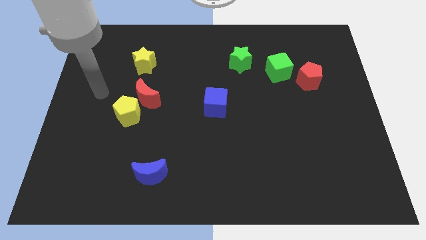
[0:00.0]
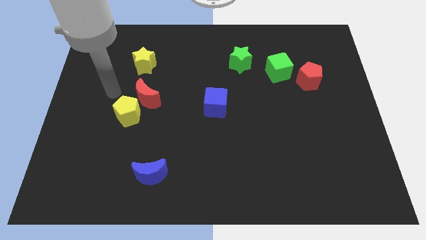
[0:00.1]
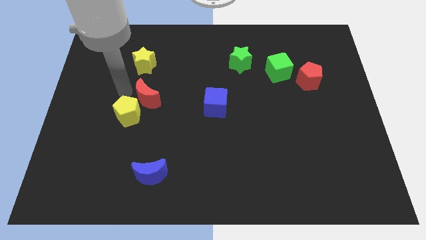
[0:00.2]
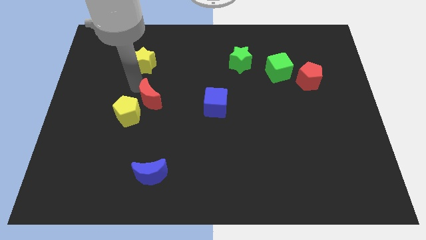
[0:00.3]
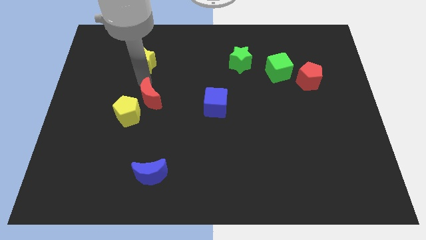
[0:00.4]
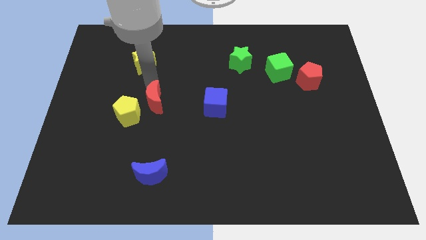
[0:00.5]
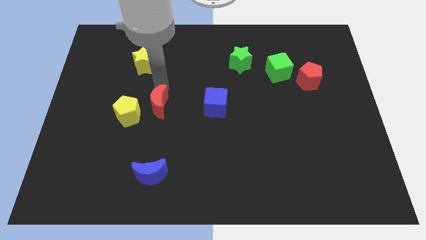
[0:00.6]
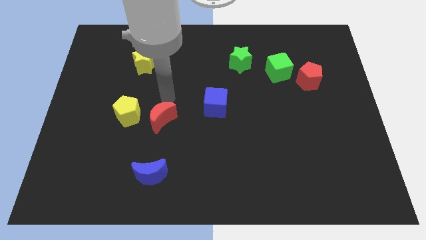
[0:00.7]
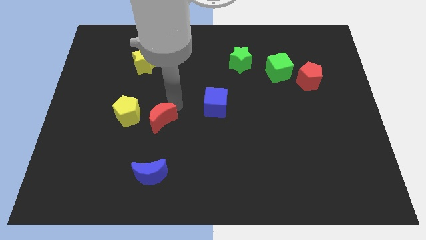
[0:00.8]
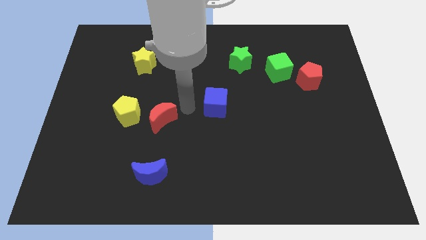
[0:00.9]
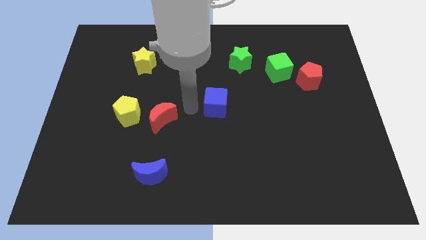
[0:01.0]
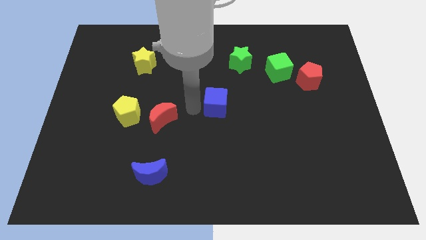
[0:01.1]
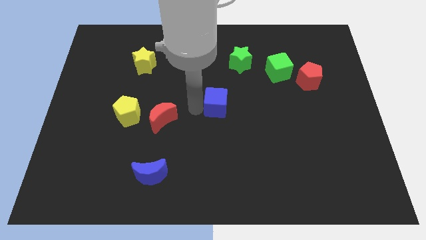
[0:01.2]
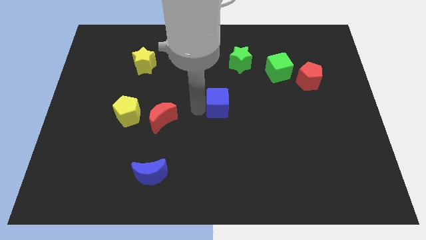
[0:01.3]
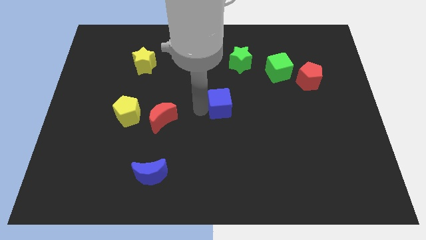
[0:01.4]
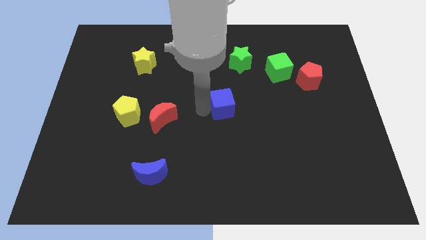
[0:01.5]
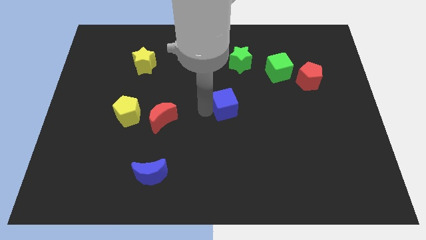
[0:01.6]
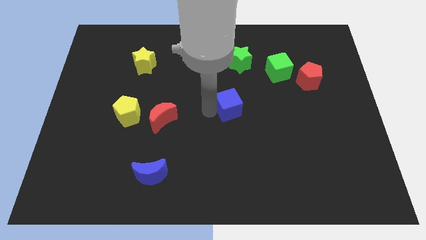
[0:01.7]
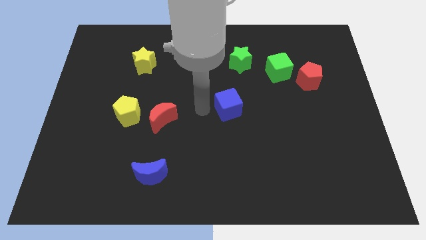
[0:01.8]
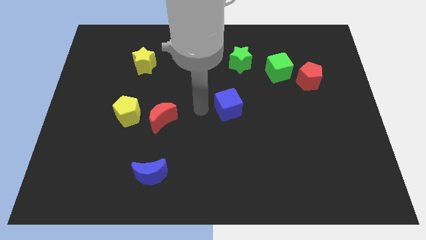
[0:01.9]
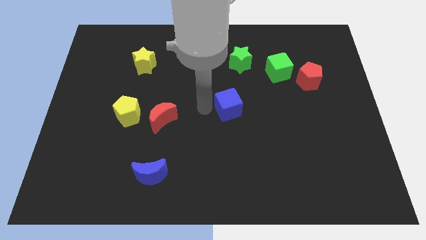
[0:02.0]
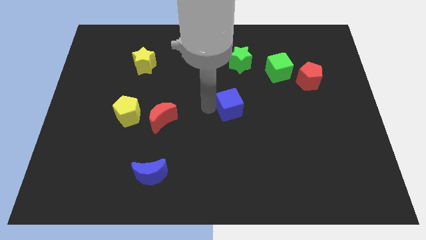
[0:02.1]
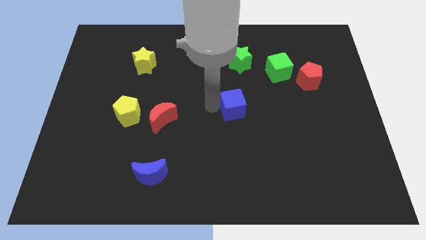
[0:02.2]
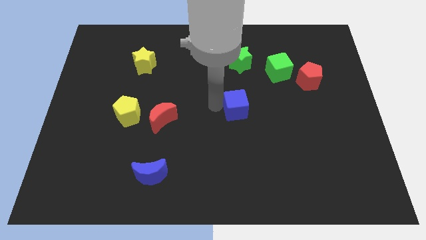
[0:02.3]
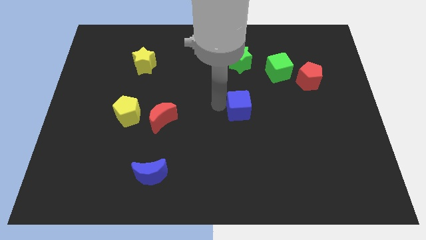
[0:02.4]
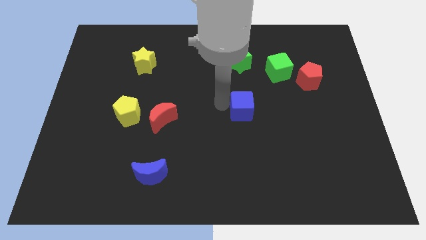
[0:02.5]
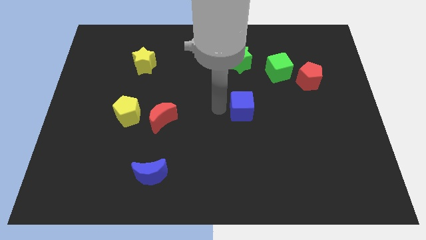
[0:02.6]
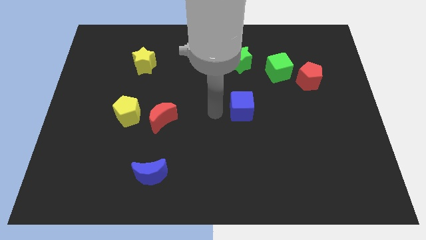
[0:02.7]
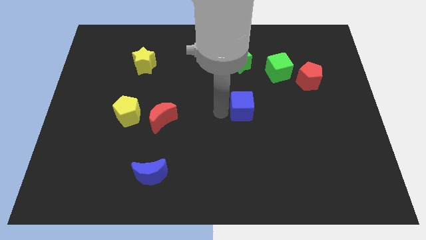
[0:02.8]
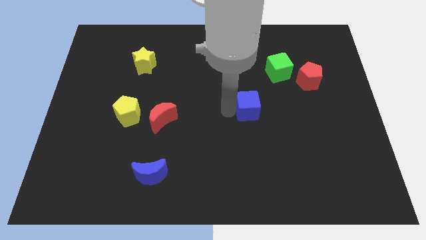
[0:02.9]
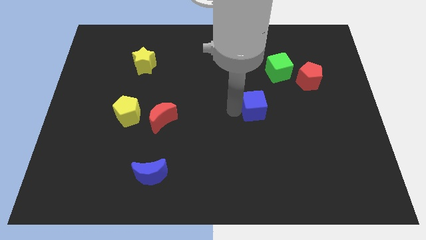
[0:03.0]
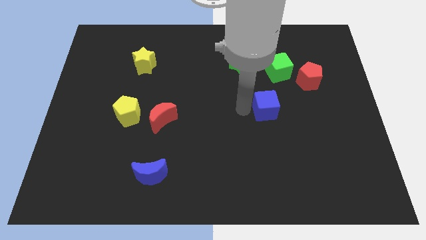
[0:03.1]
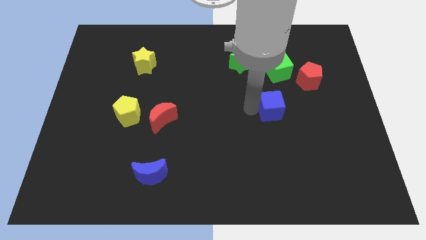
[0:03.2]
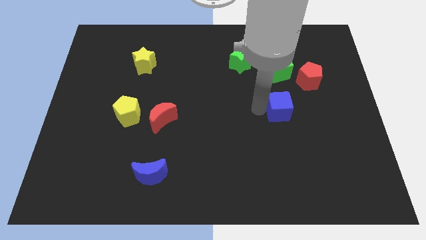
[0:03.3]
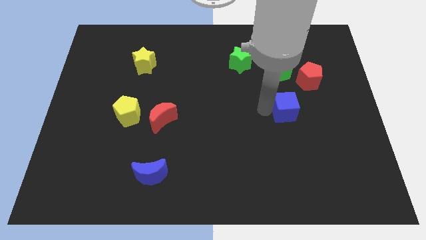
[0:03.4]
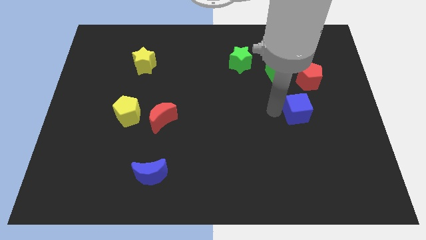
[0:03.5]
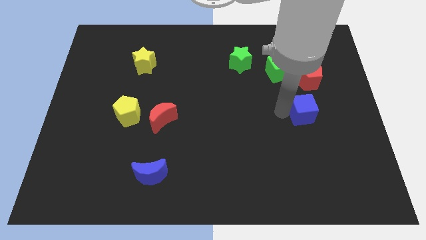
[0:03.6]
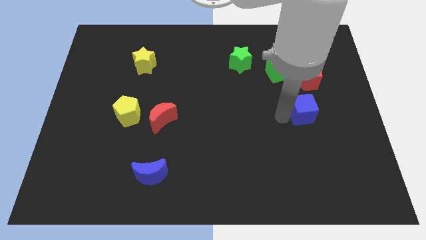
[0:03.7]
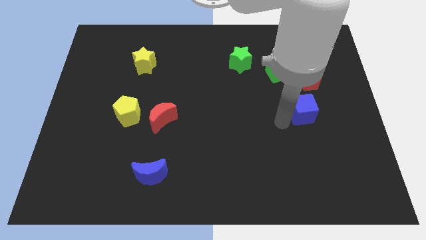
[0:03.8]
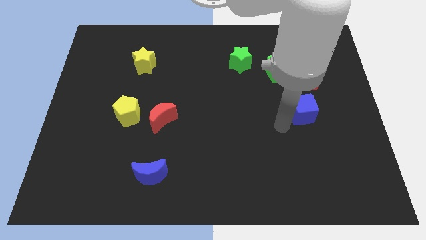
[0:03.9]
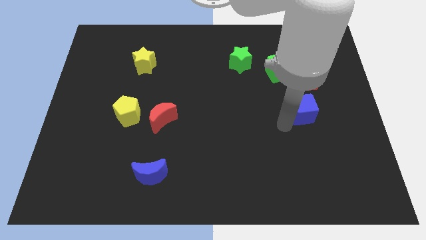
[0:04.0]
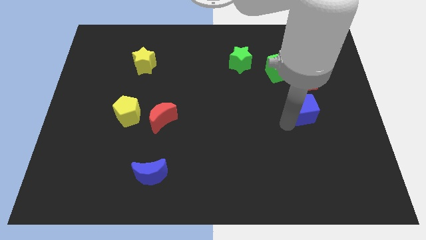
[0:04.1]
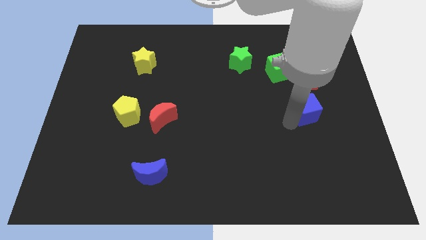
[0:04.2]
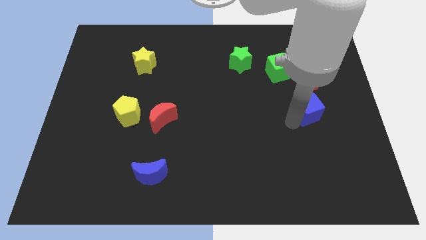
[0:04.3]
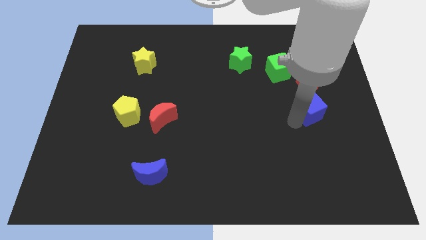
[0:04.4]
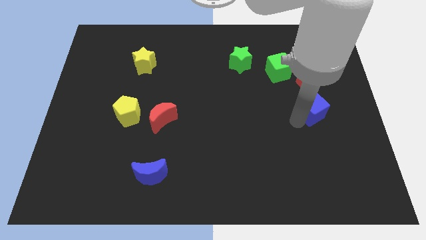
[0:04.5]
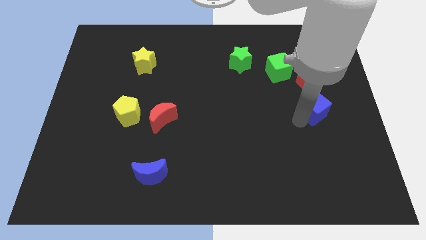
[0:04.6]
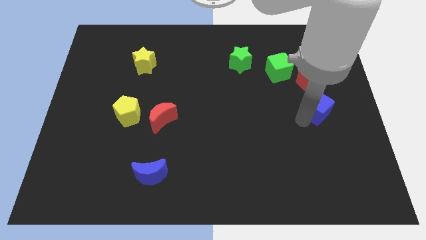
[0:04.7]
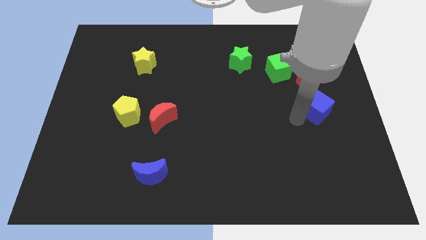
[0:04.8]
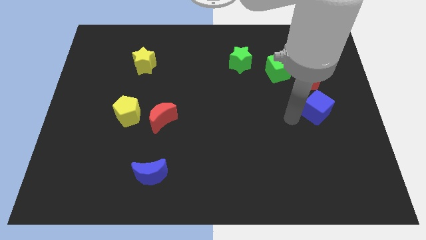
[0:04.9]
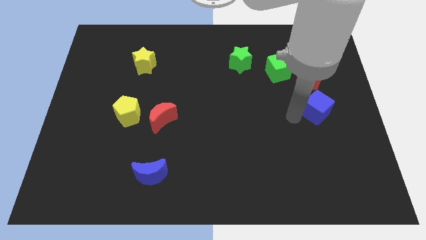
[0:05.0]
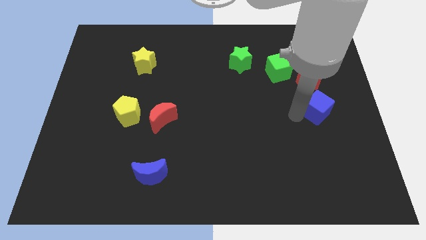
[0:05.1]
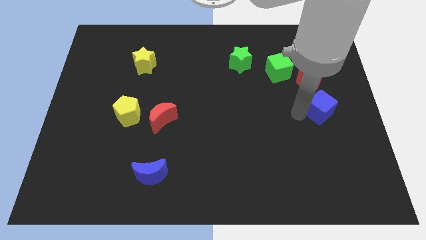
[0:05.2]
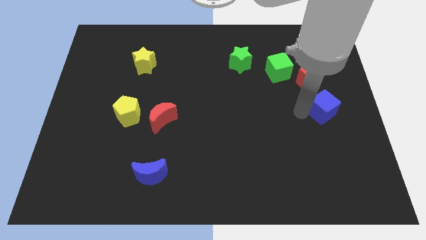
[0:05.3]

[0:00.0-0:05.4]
push the blue cube to the center right

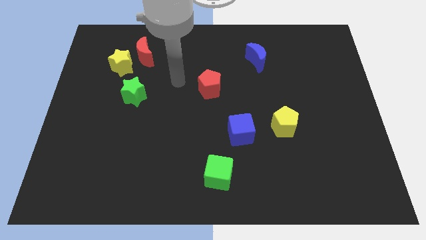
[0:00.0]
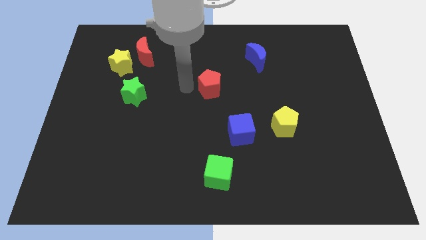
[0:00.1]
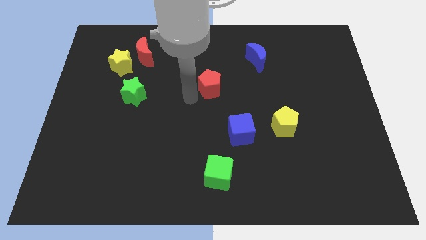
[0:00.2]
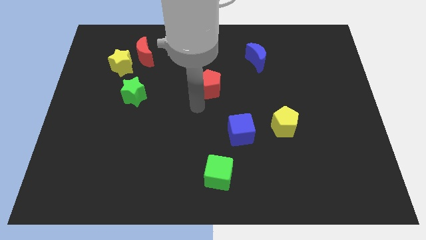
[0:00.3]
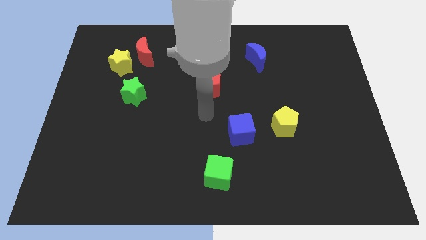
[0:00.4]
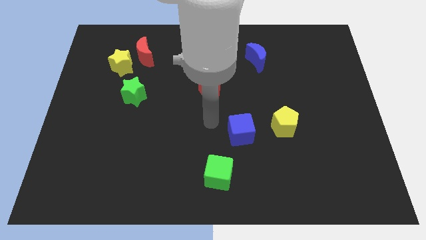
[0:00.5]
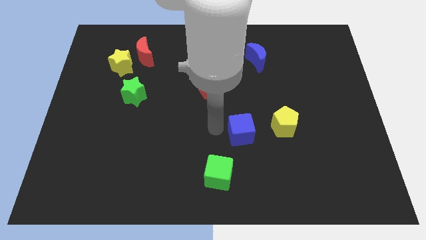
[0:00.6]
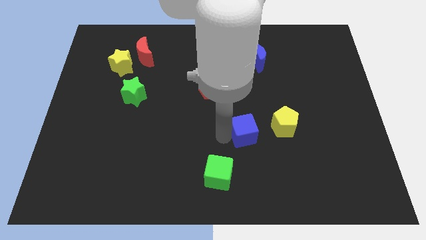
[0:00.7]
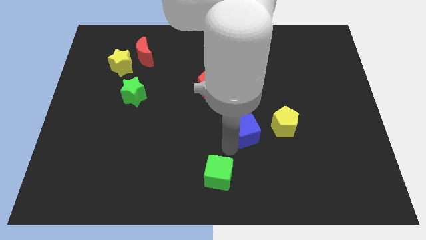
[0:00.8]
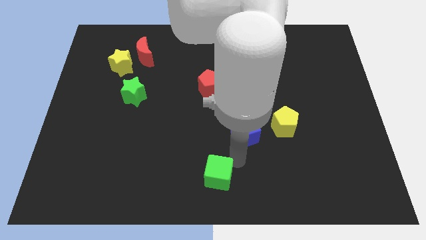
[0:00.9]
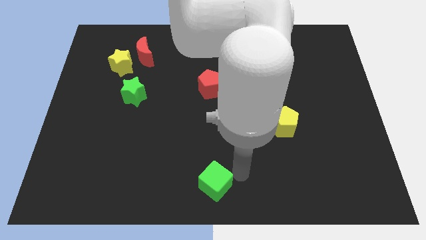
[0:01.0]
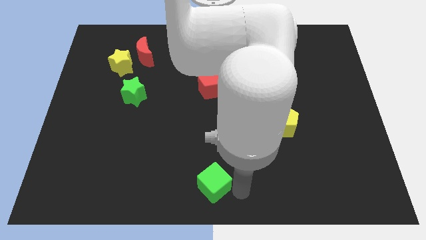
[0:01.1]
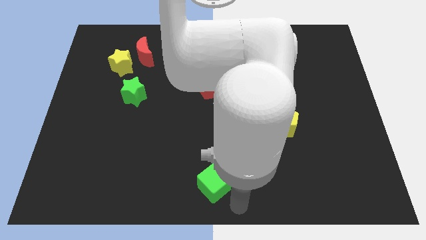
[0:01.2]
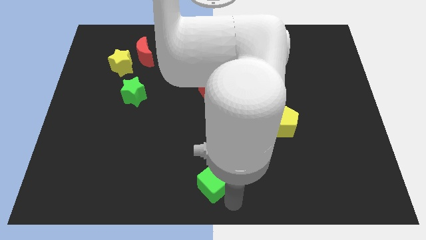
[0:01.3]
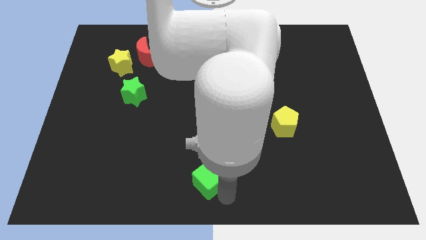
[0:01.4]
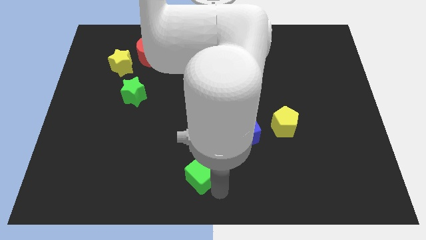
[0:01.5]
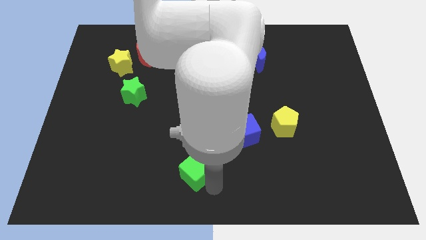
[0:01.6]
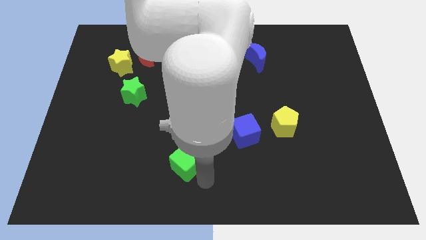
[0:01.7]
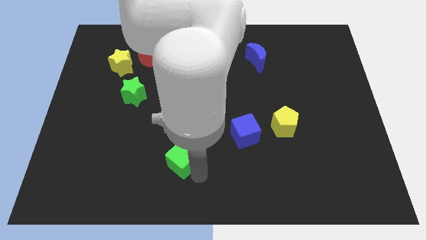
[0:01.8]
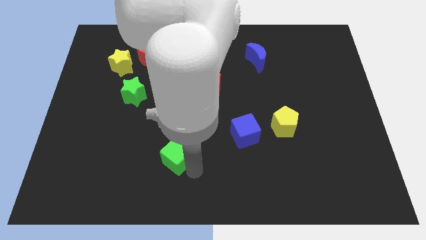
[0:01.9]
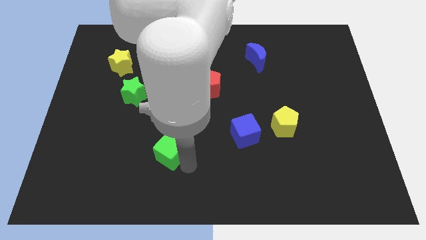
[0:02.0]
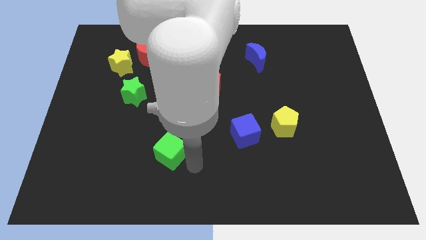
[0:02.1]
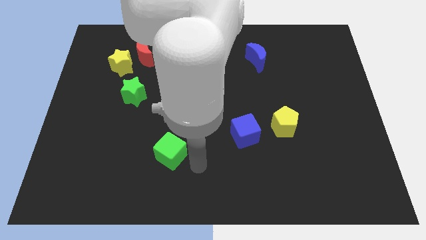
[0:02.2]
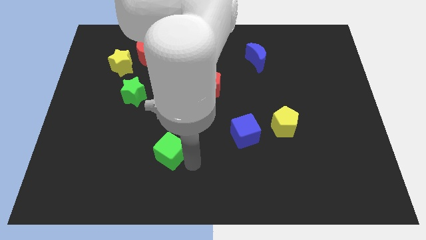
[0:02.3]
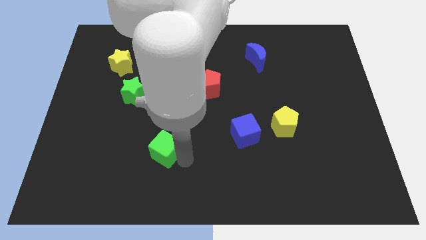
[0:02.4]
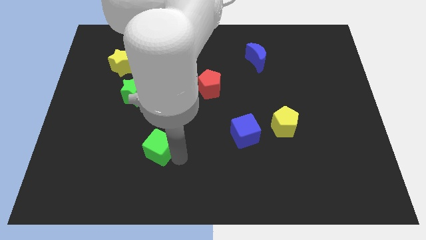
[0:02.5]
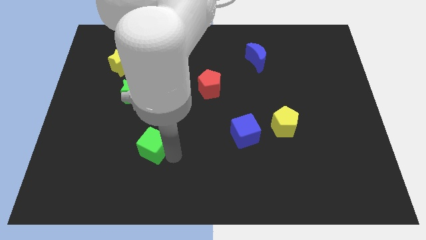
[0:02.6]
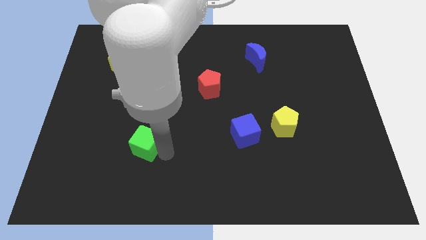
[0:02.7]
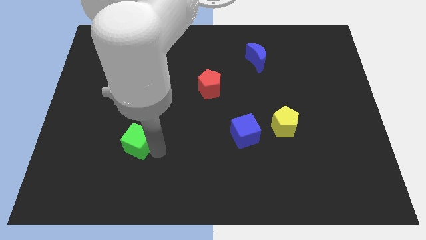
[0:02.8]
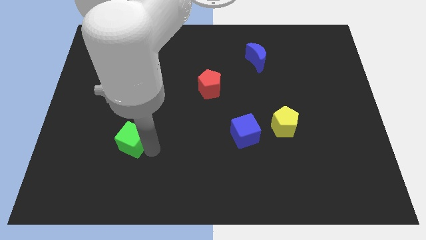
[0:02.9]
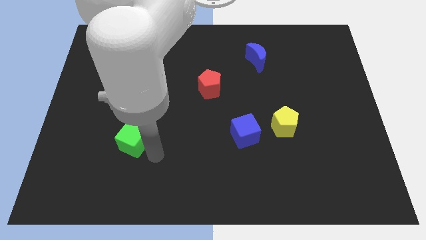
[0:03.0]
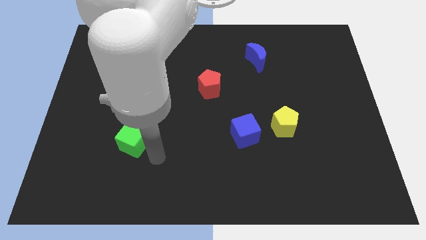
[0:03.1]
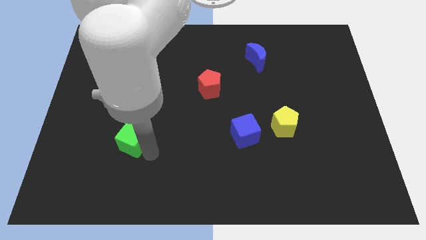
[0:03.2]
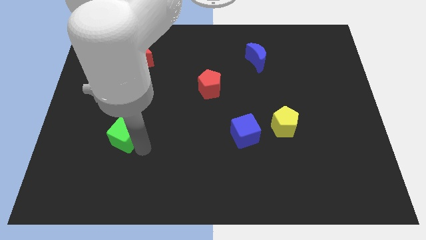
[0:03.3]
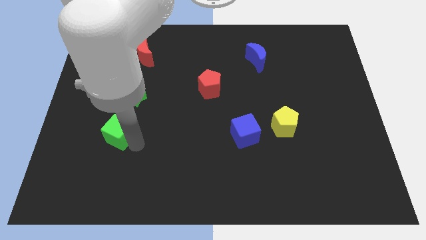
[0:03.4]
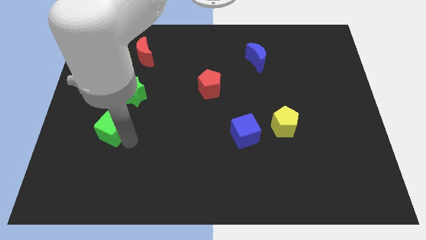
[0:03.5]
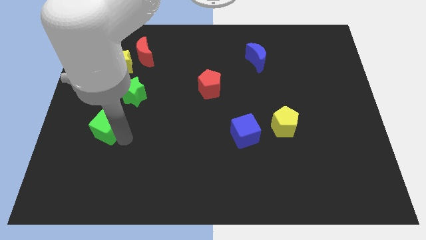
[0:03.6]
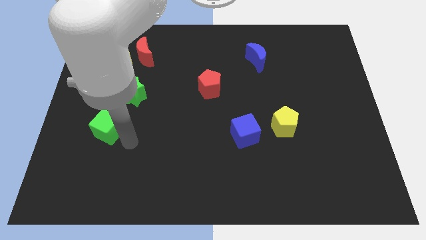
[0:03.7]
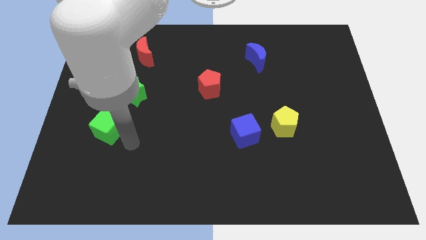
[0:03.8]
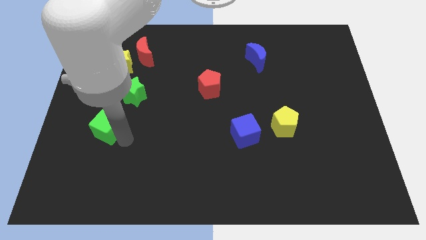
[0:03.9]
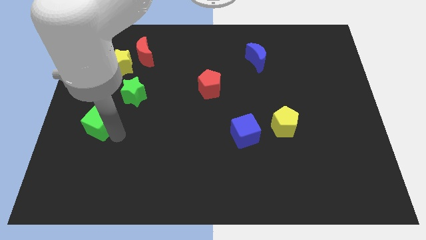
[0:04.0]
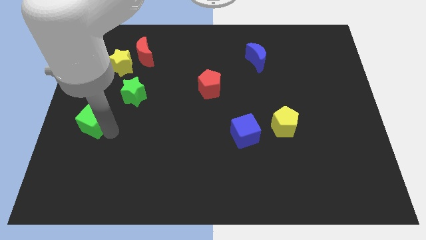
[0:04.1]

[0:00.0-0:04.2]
slide the green cube to the center left
